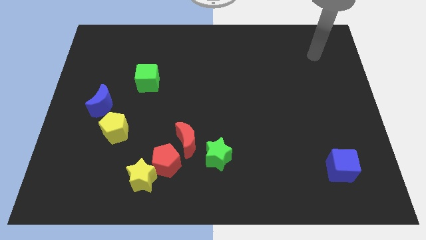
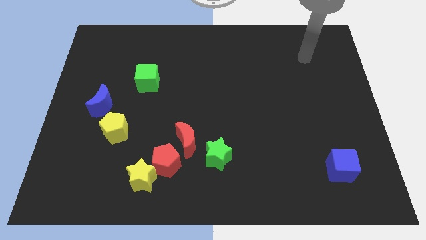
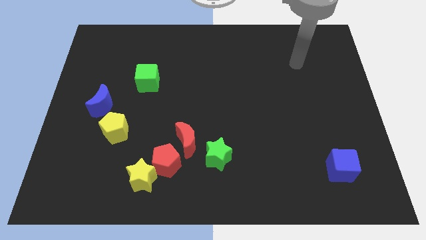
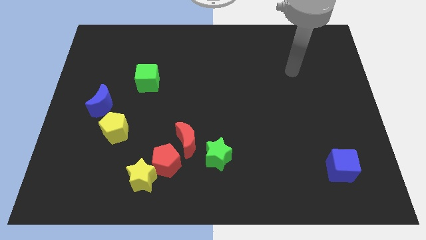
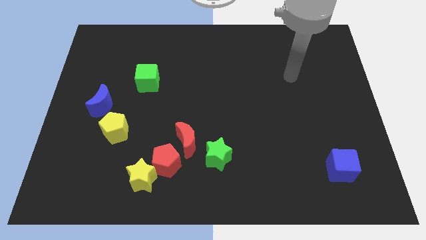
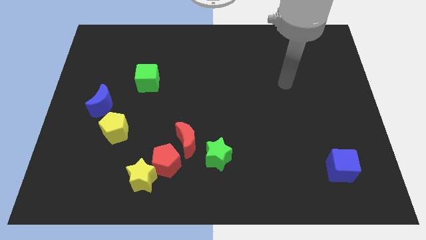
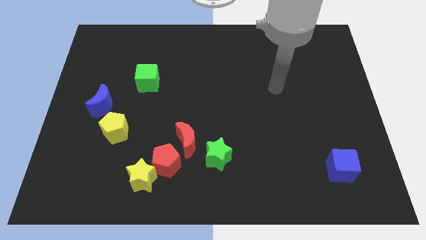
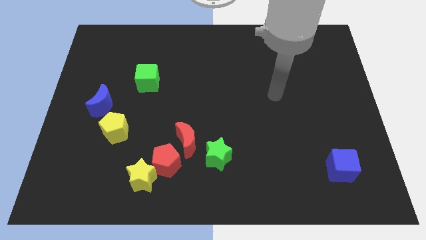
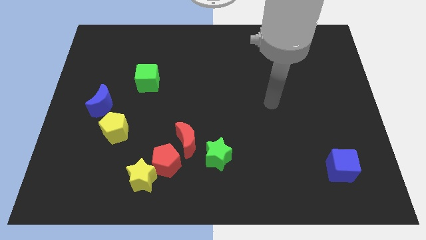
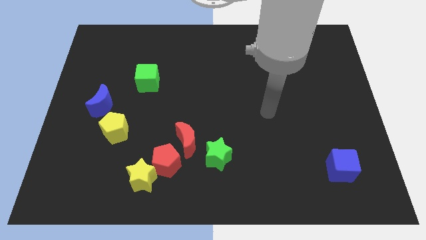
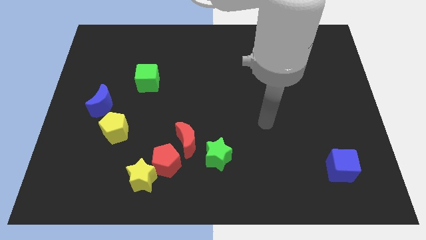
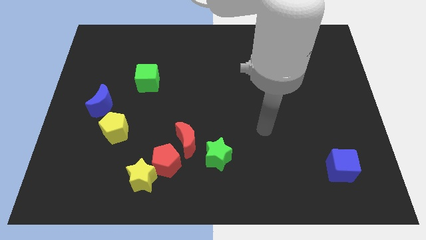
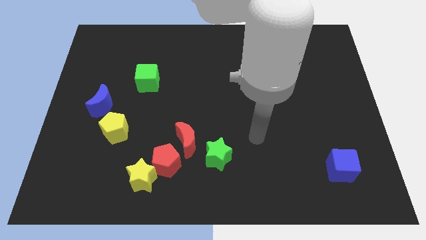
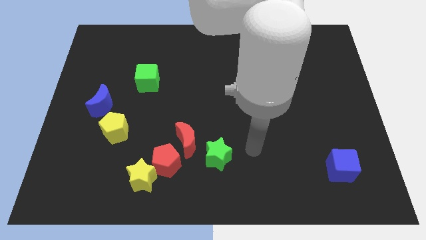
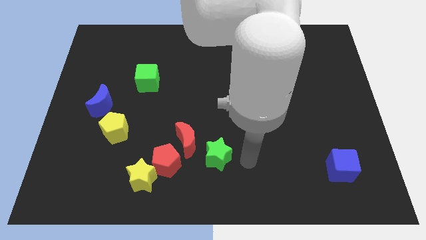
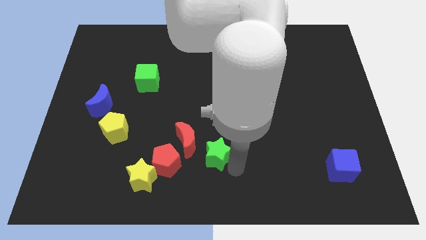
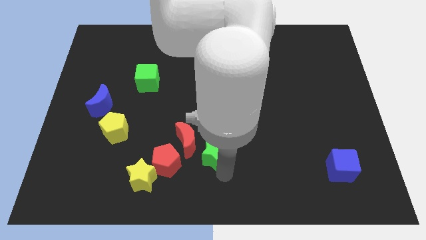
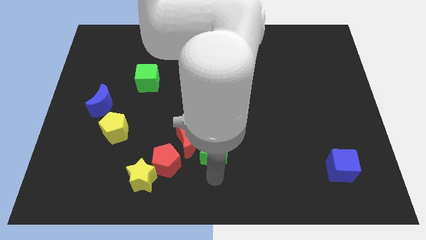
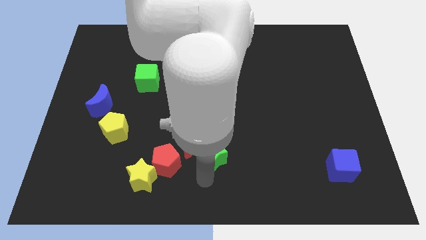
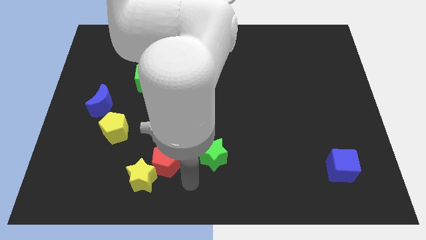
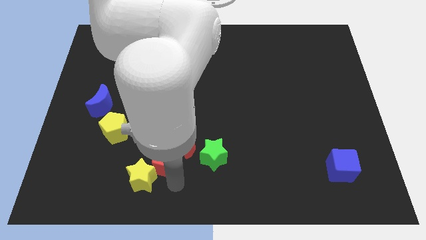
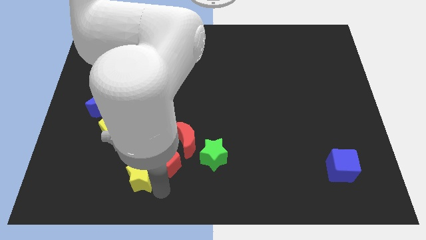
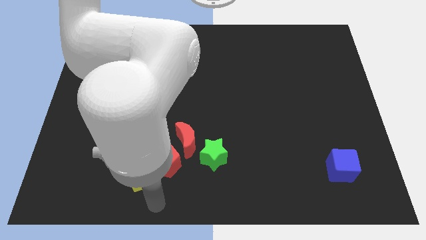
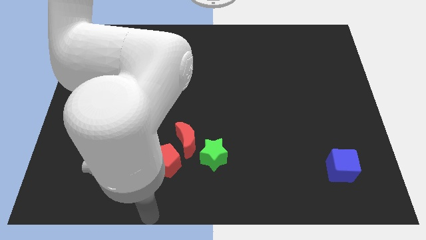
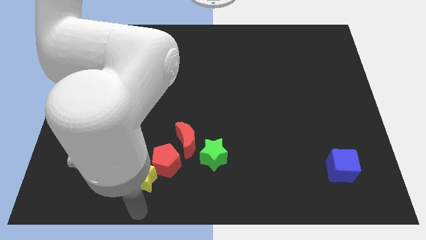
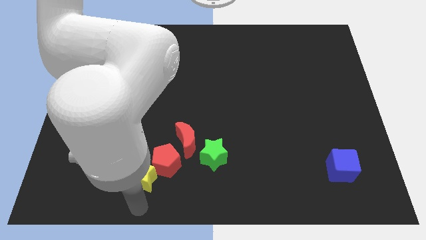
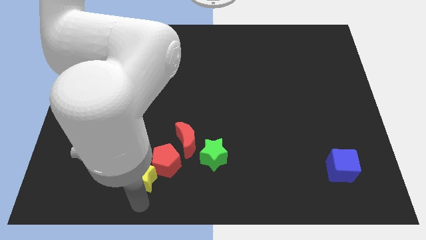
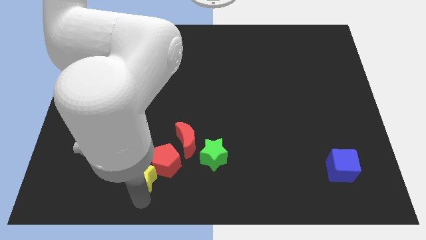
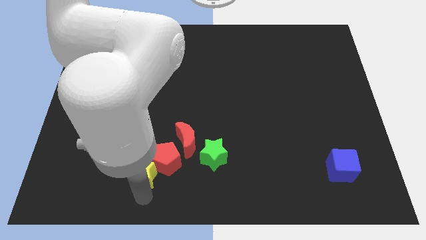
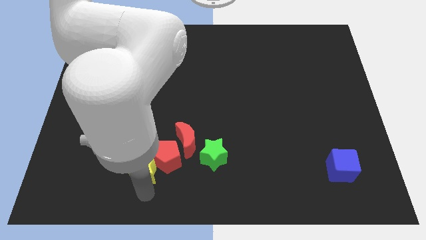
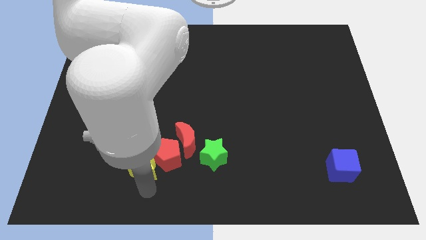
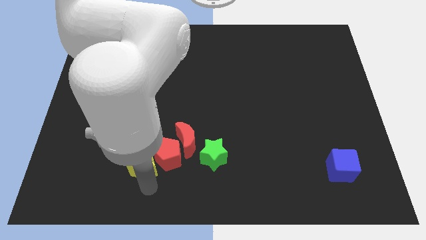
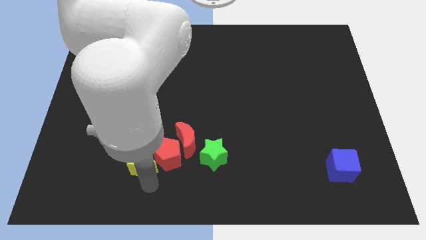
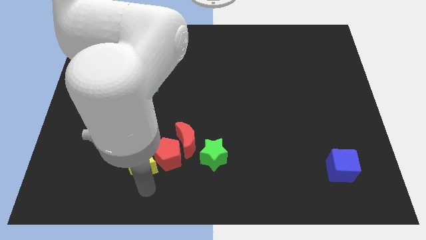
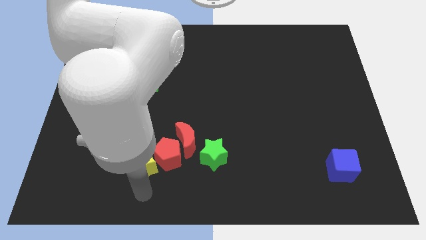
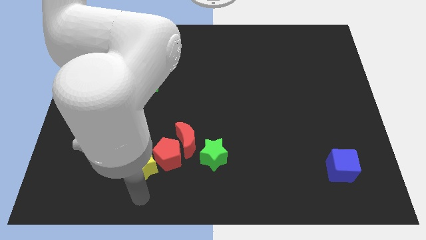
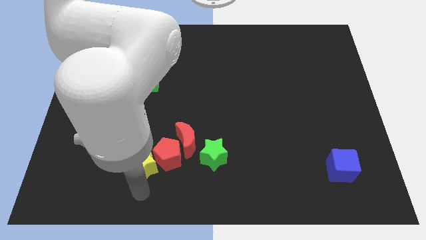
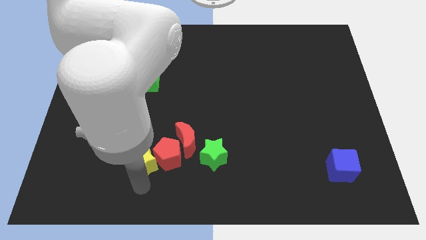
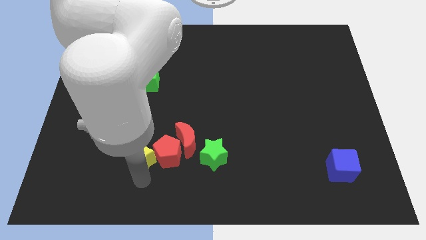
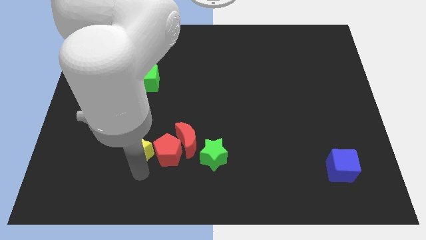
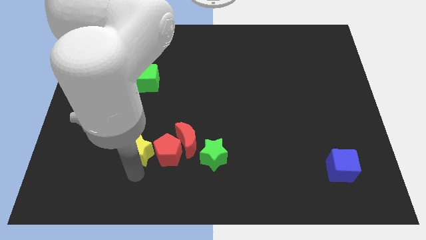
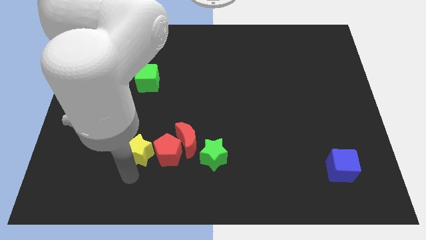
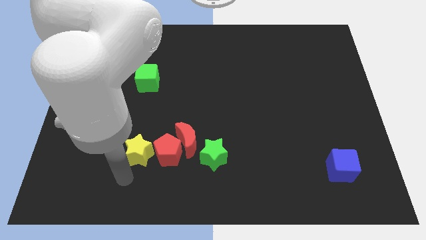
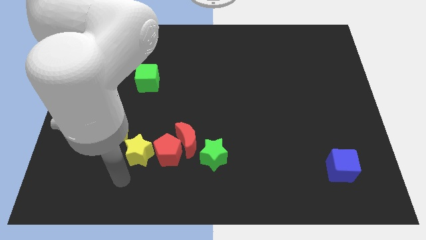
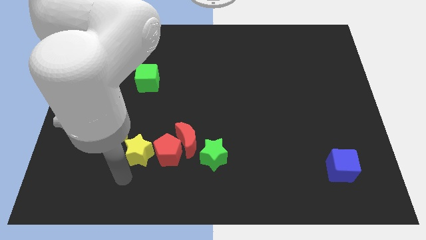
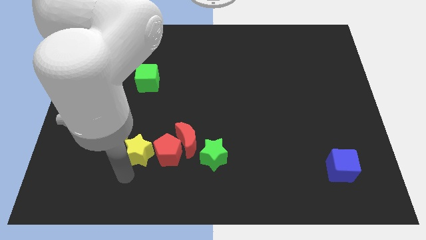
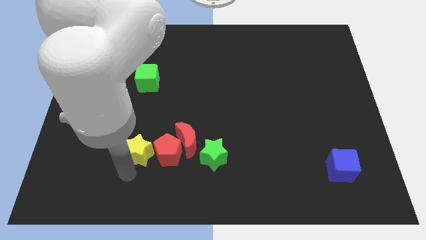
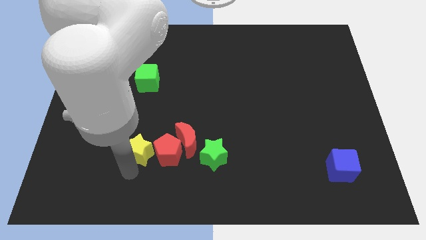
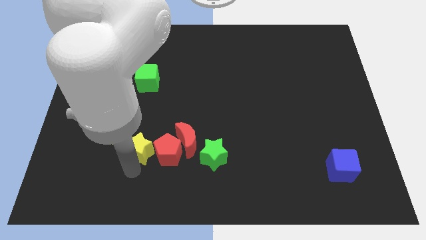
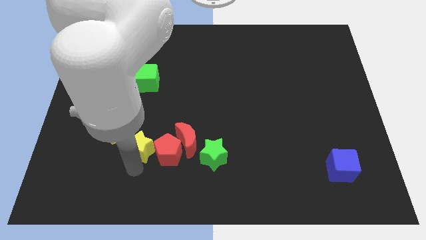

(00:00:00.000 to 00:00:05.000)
slide the yellow star up a little

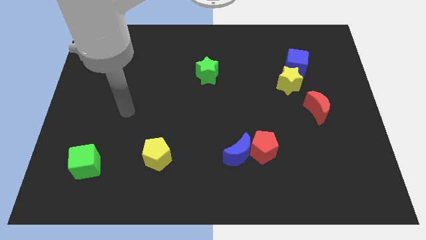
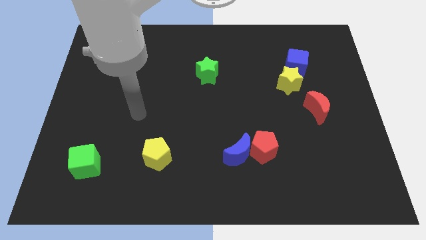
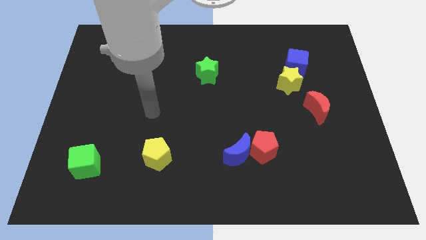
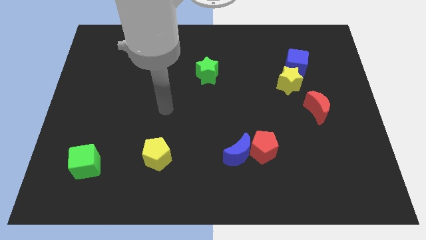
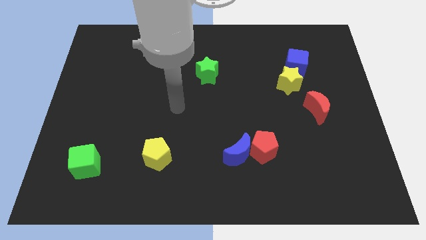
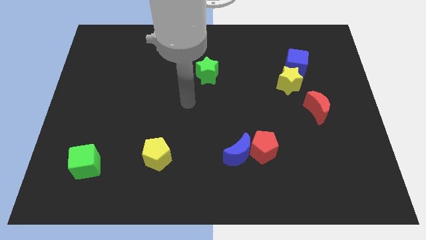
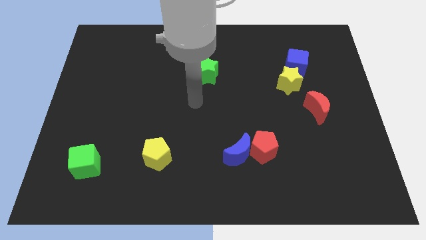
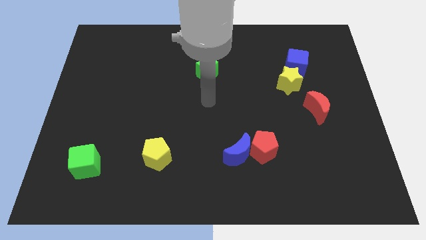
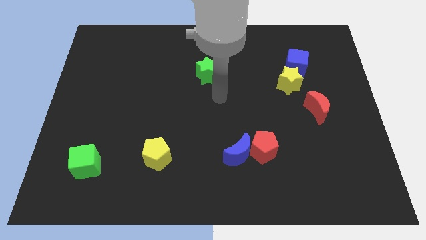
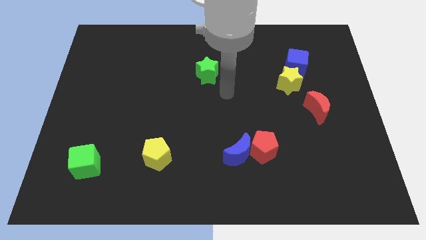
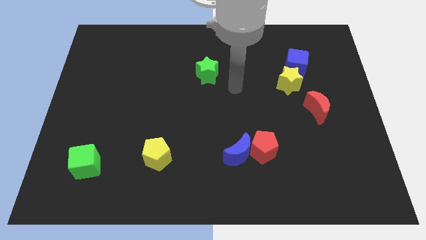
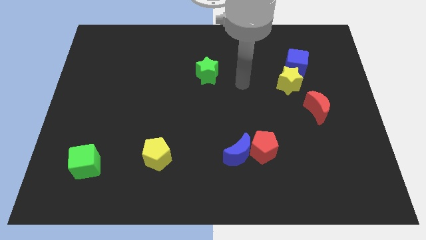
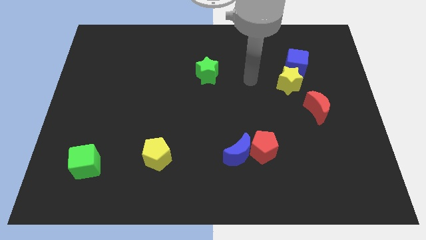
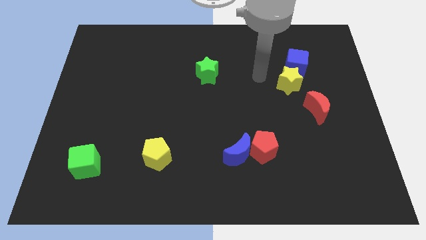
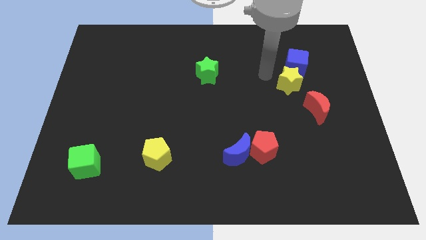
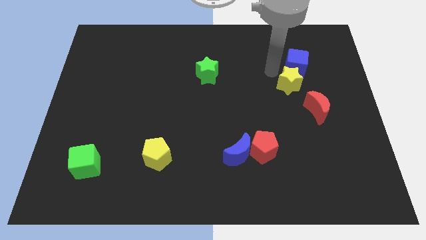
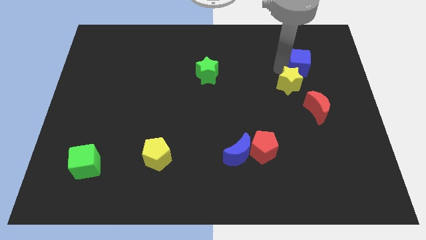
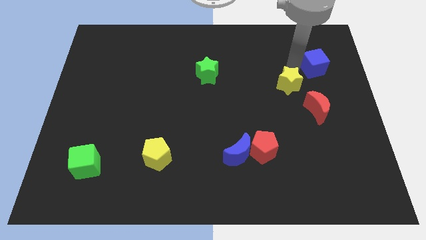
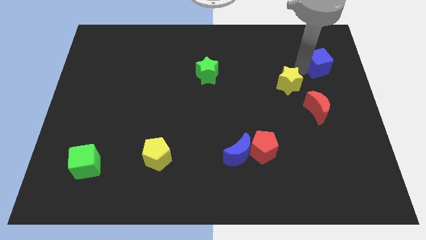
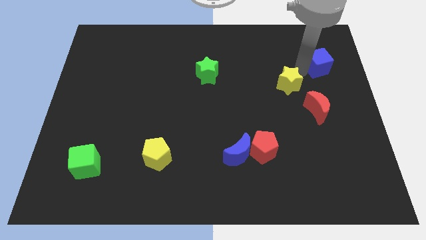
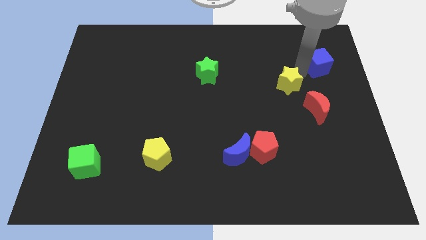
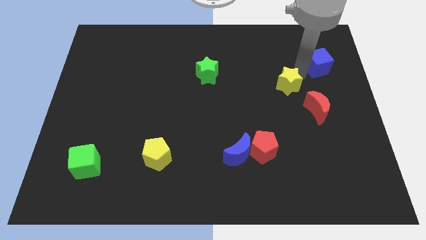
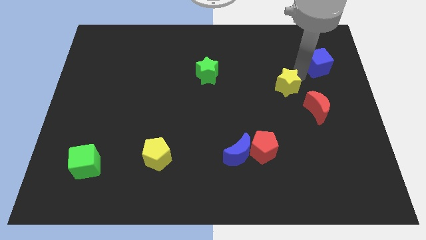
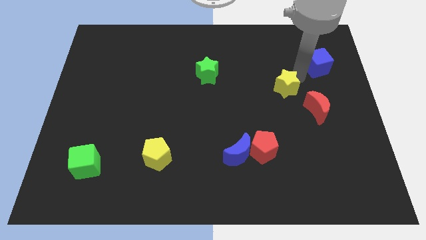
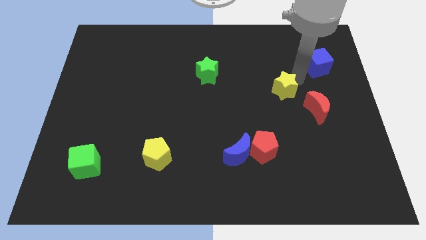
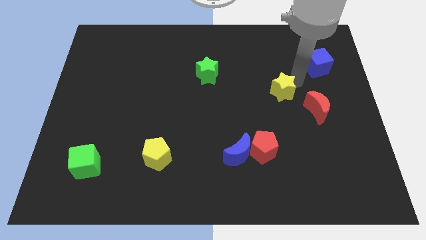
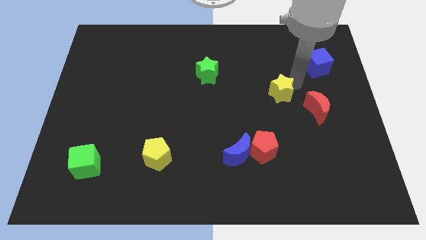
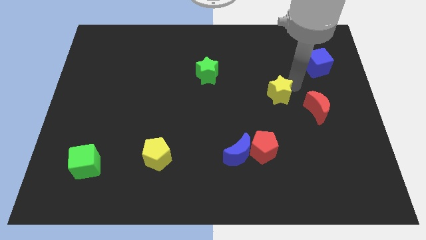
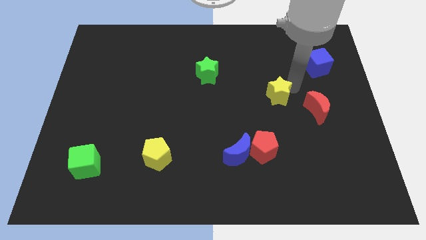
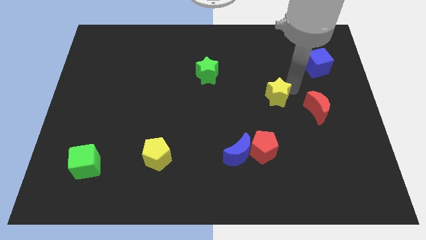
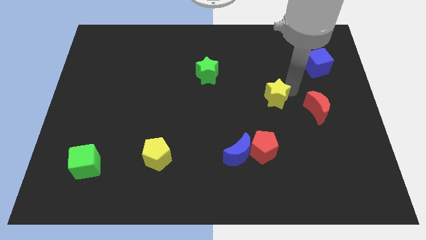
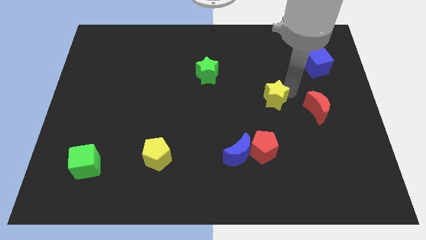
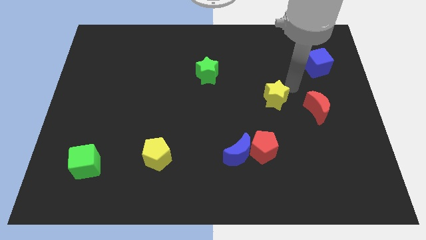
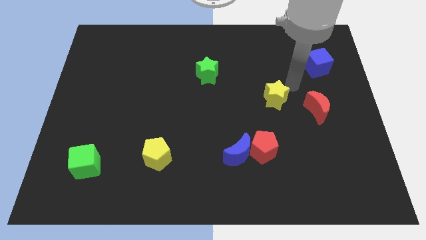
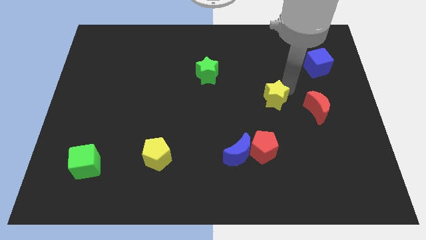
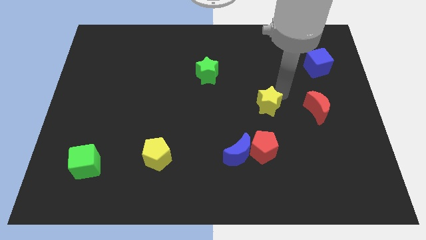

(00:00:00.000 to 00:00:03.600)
slide the yellow star down and then left a bit
